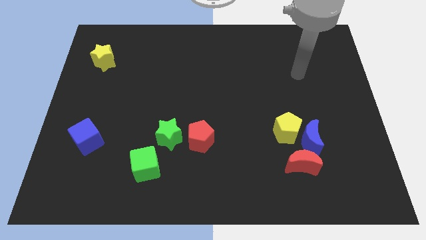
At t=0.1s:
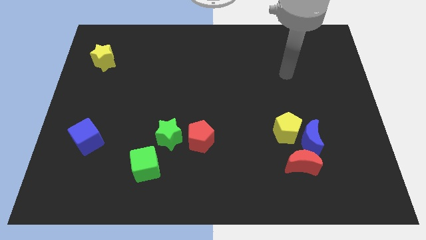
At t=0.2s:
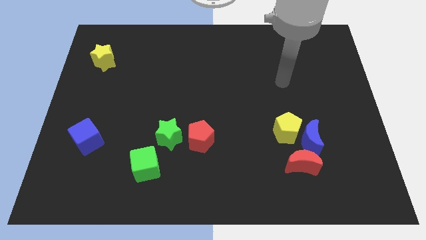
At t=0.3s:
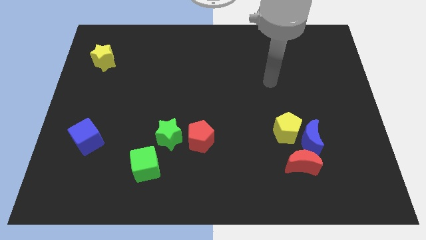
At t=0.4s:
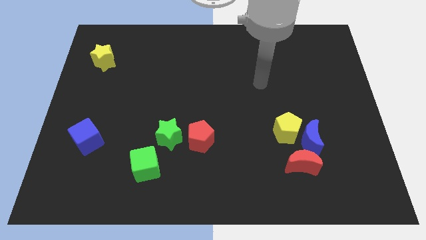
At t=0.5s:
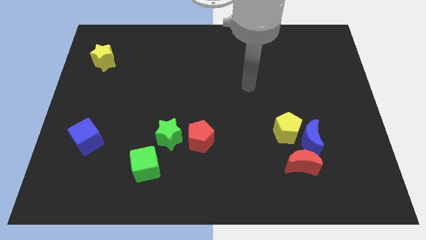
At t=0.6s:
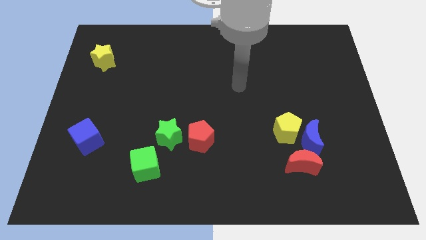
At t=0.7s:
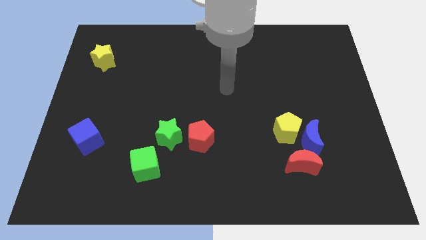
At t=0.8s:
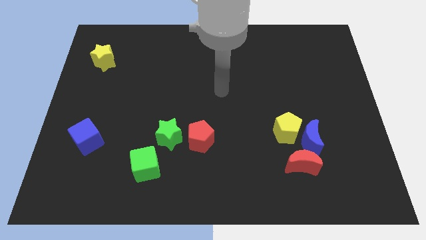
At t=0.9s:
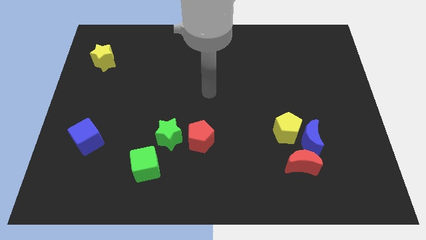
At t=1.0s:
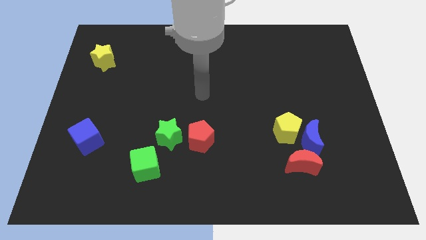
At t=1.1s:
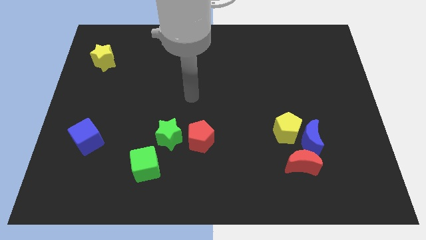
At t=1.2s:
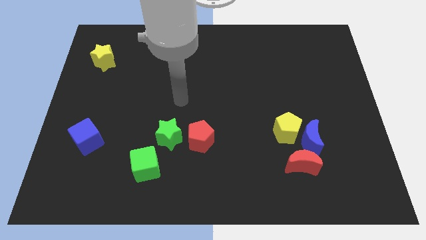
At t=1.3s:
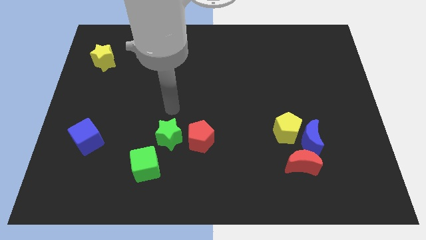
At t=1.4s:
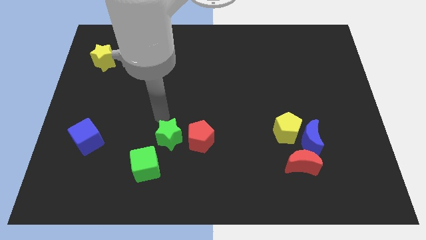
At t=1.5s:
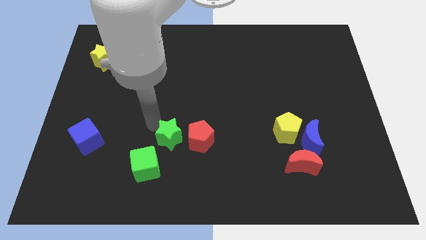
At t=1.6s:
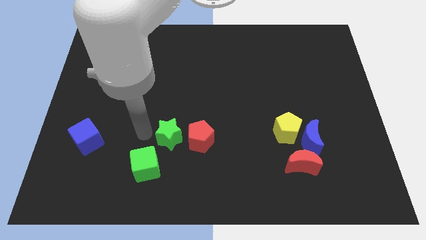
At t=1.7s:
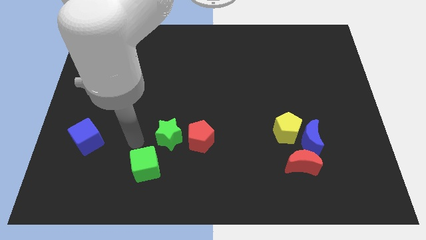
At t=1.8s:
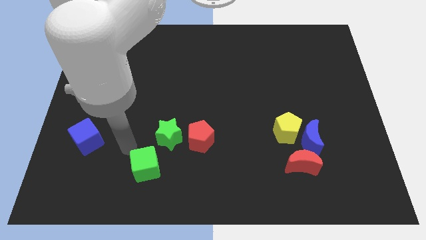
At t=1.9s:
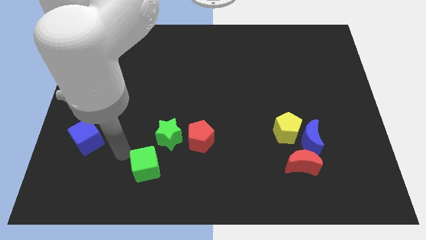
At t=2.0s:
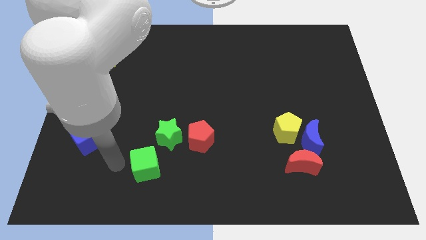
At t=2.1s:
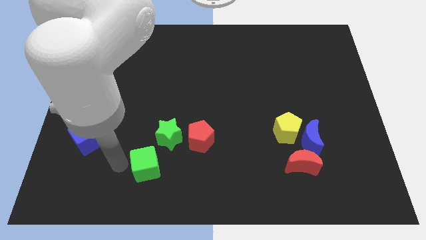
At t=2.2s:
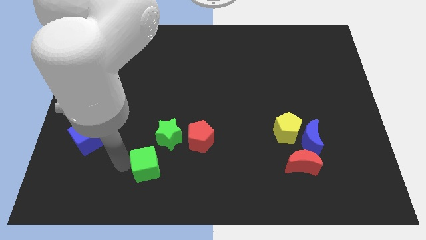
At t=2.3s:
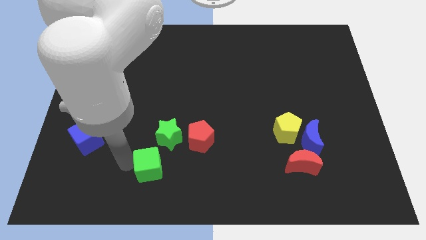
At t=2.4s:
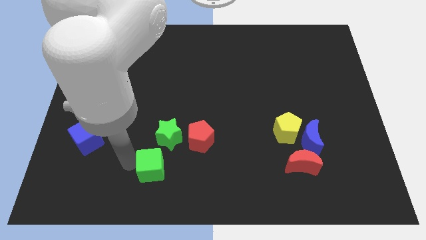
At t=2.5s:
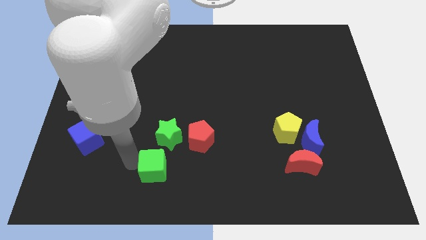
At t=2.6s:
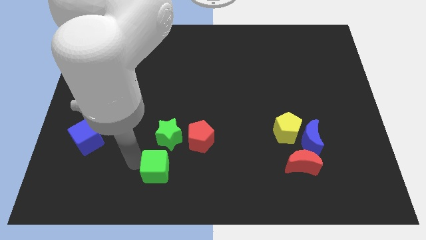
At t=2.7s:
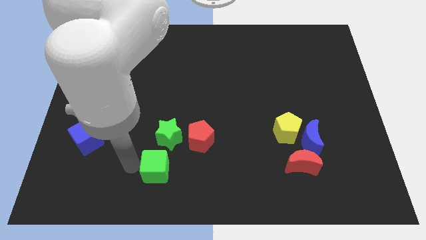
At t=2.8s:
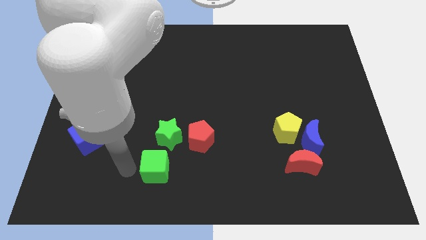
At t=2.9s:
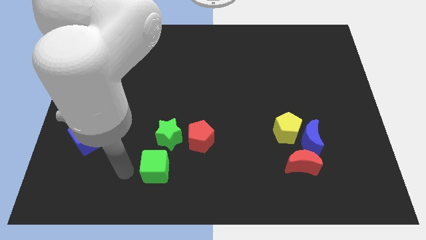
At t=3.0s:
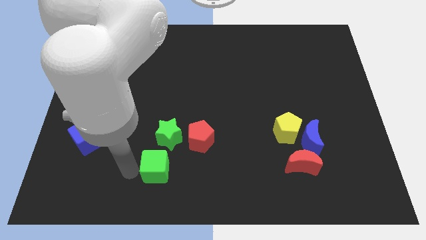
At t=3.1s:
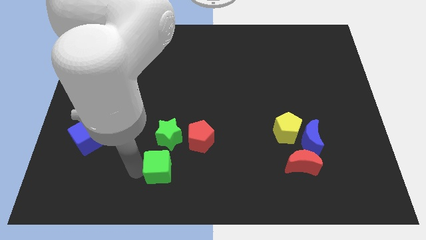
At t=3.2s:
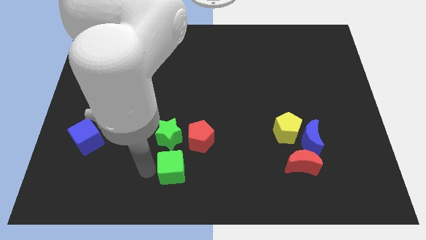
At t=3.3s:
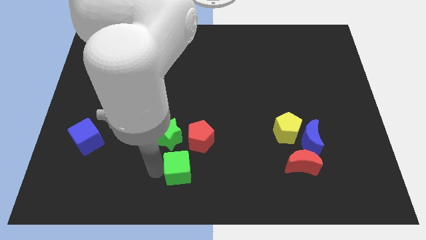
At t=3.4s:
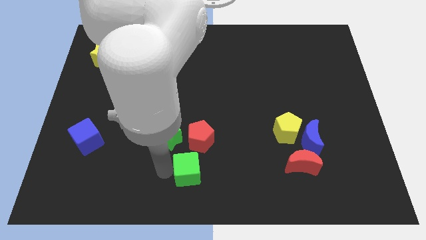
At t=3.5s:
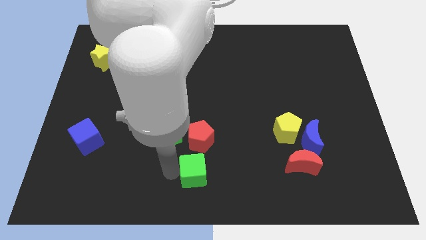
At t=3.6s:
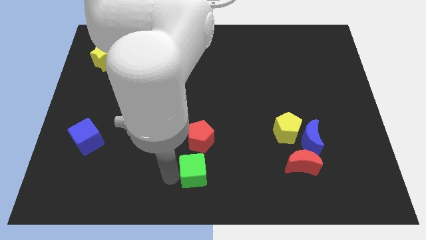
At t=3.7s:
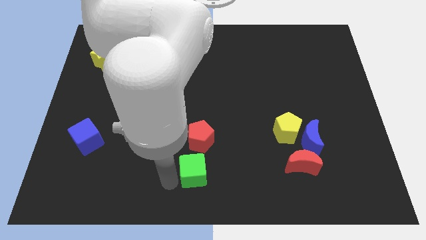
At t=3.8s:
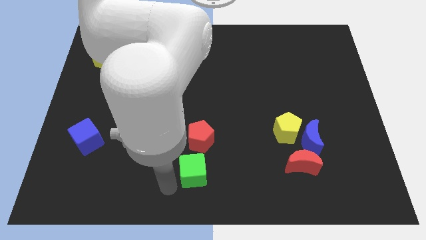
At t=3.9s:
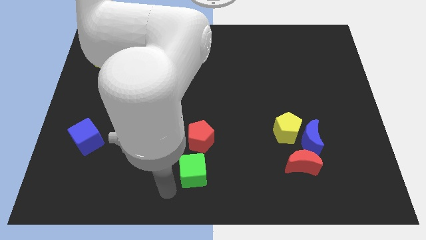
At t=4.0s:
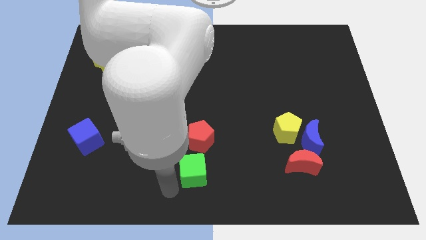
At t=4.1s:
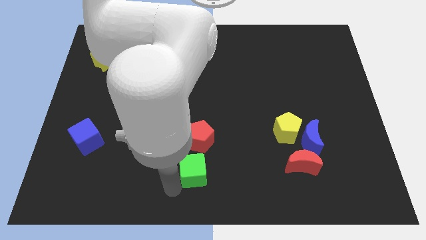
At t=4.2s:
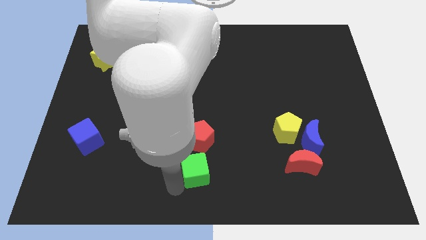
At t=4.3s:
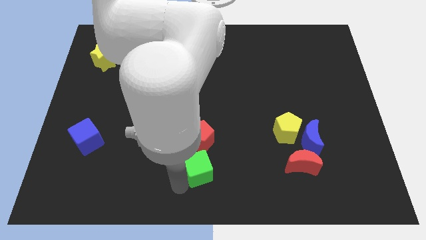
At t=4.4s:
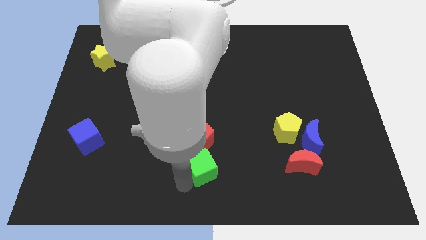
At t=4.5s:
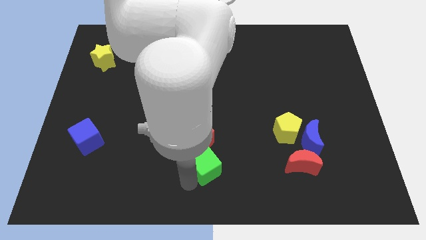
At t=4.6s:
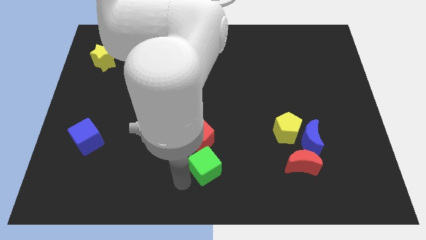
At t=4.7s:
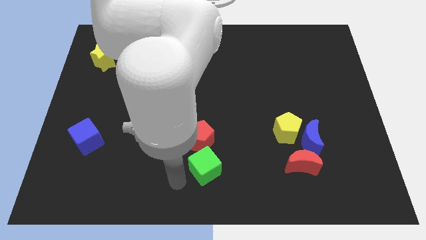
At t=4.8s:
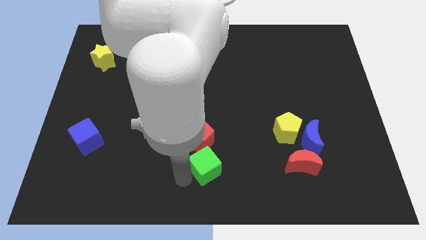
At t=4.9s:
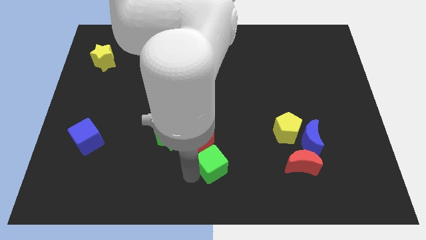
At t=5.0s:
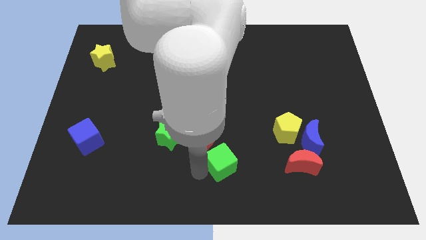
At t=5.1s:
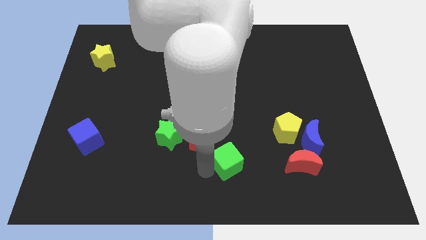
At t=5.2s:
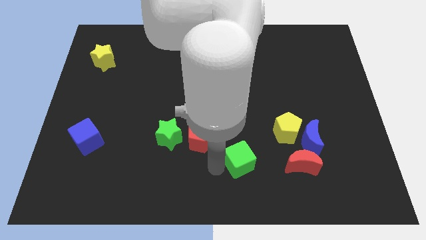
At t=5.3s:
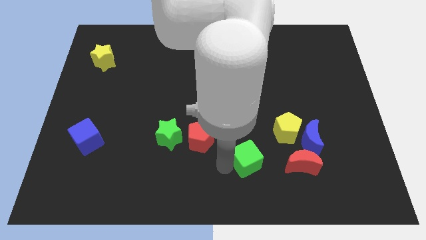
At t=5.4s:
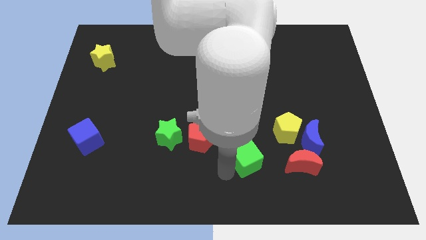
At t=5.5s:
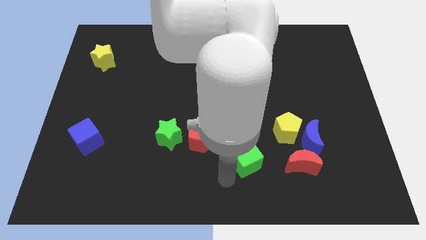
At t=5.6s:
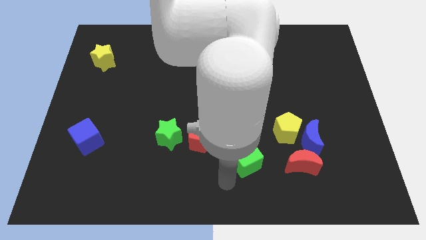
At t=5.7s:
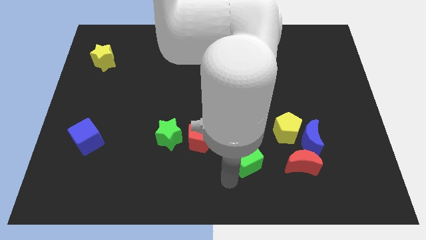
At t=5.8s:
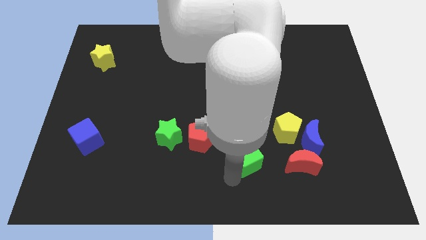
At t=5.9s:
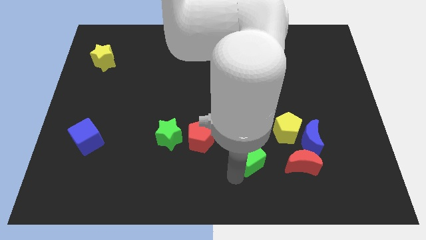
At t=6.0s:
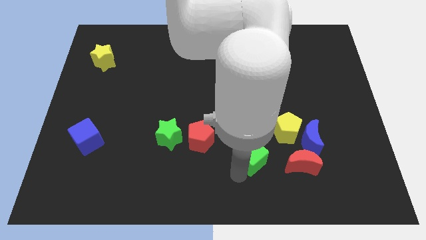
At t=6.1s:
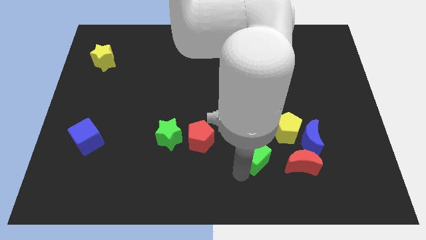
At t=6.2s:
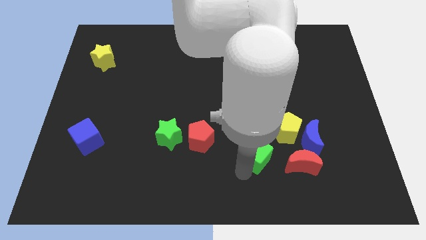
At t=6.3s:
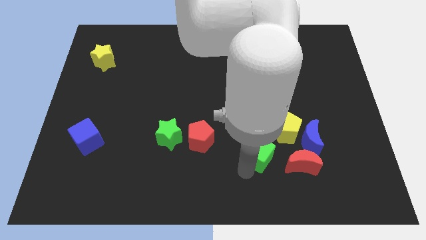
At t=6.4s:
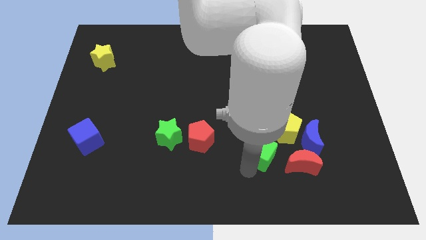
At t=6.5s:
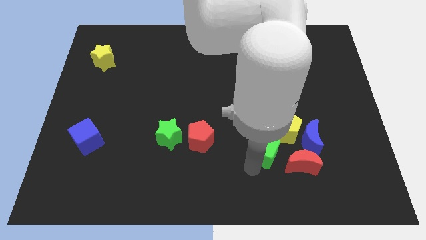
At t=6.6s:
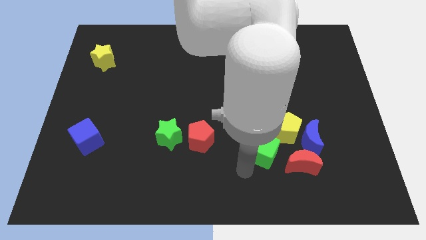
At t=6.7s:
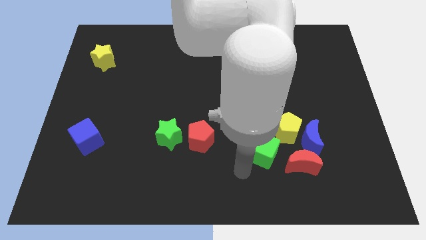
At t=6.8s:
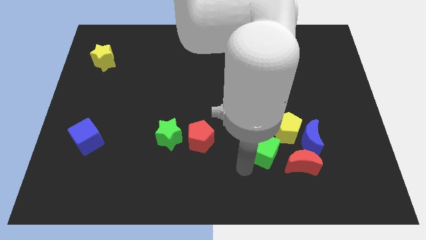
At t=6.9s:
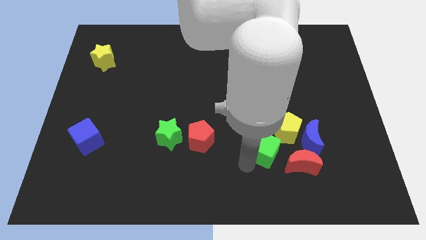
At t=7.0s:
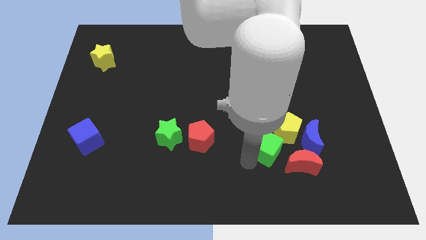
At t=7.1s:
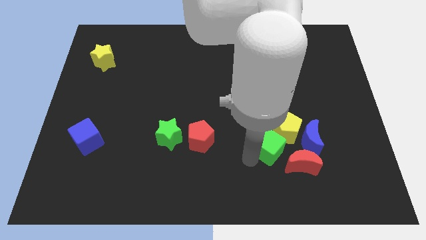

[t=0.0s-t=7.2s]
slide the green cube towards the yellow pentagon
